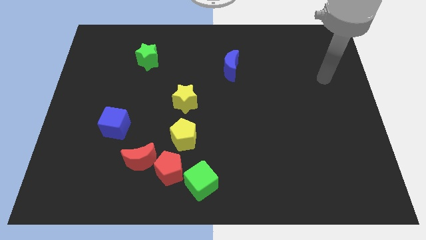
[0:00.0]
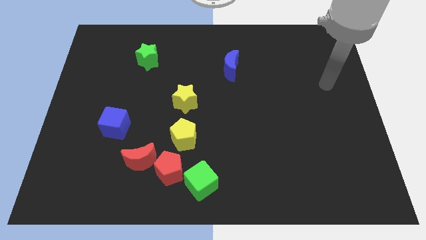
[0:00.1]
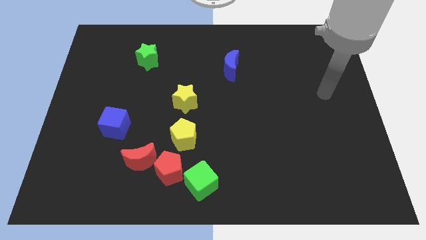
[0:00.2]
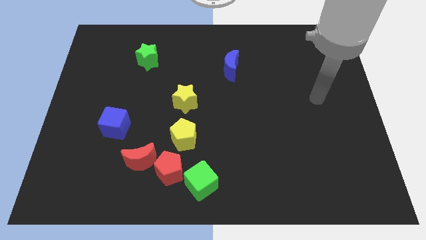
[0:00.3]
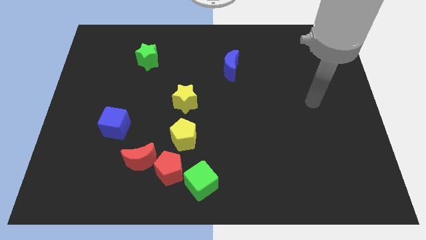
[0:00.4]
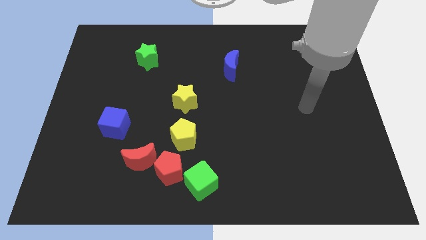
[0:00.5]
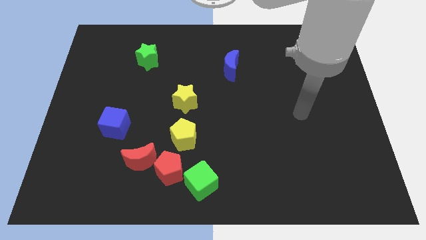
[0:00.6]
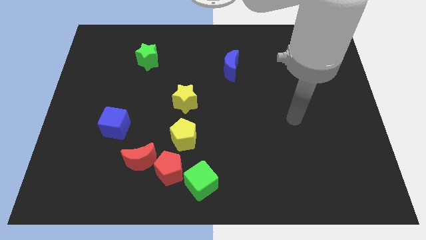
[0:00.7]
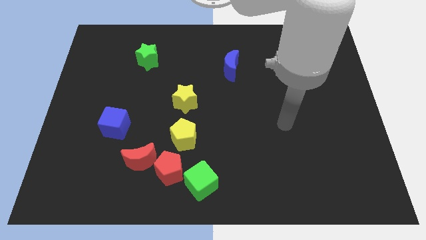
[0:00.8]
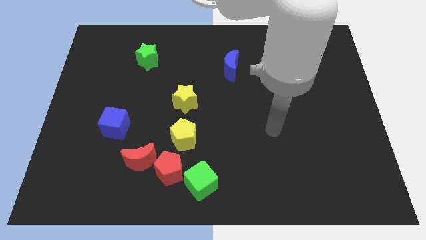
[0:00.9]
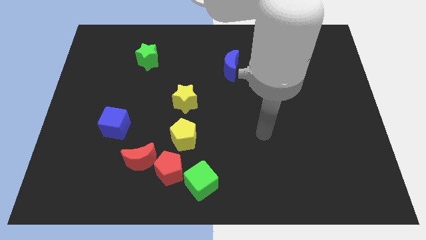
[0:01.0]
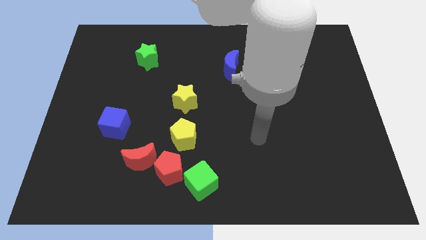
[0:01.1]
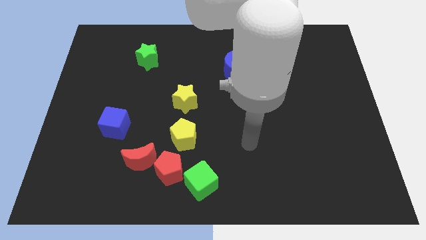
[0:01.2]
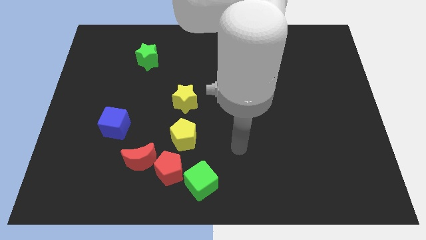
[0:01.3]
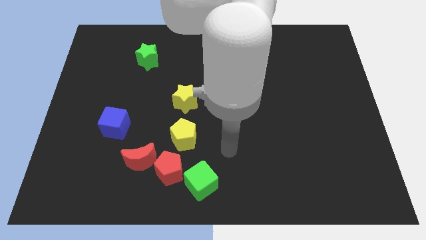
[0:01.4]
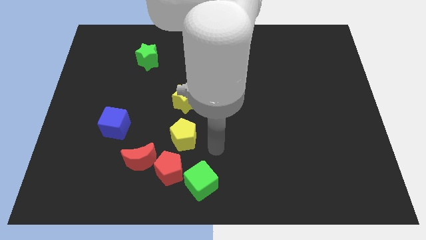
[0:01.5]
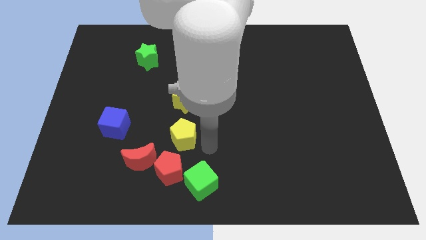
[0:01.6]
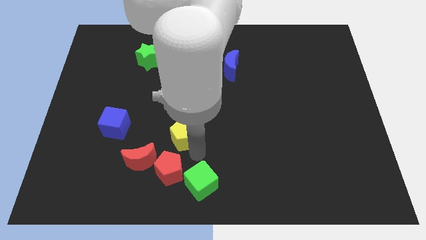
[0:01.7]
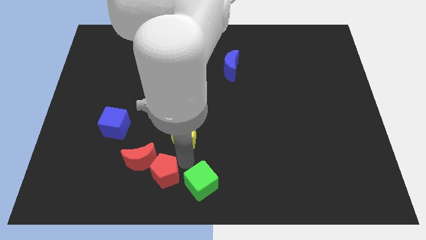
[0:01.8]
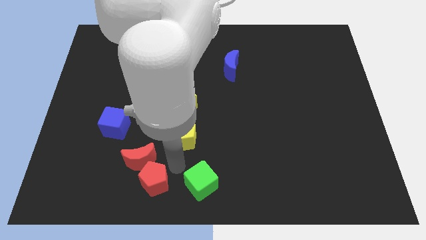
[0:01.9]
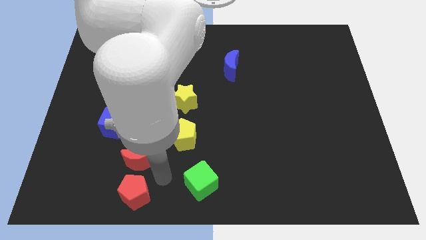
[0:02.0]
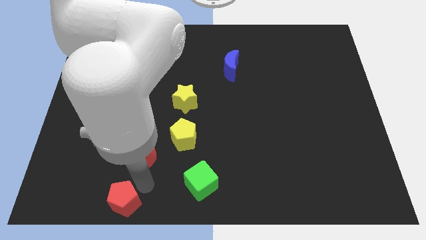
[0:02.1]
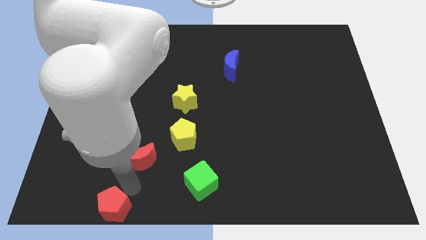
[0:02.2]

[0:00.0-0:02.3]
pull the red moon apart from the red pentagon

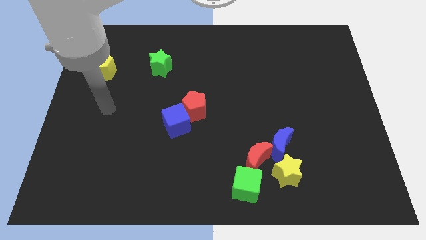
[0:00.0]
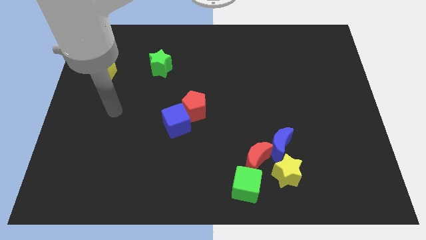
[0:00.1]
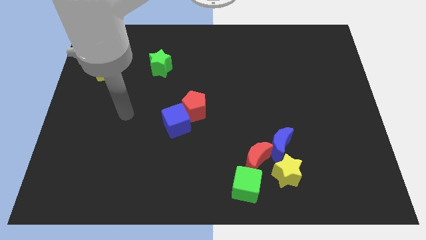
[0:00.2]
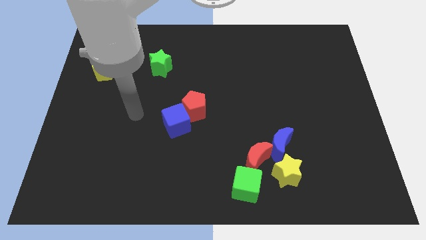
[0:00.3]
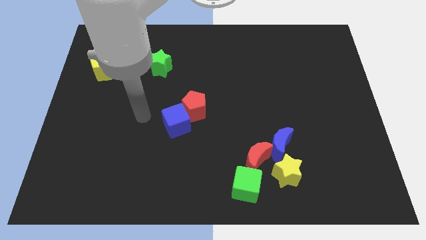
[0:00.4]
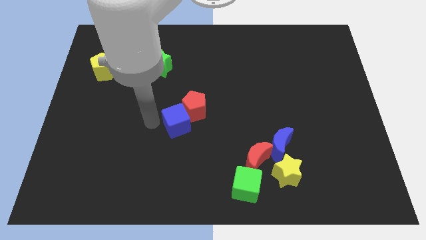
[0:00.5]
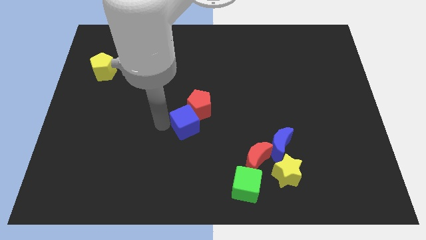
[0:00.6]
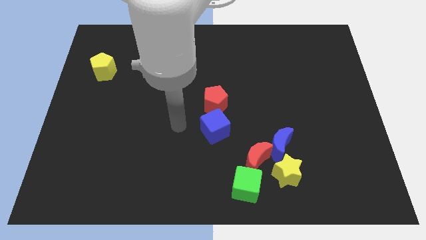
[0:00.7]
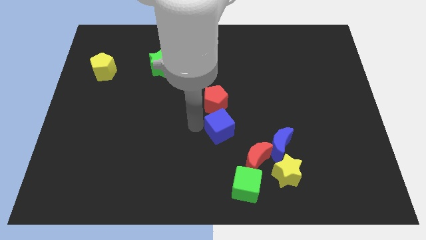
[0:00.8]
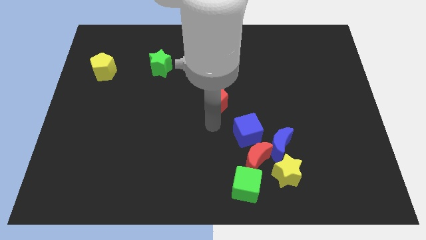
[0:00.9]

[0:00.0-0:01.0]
pull the red pentagon apart from the blue cube

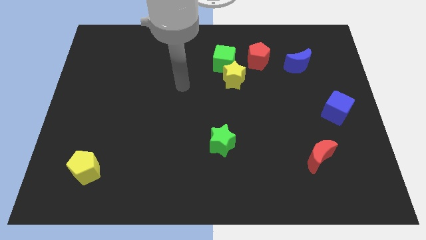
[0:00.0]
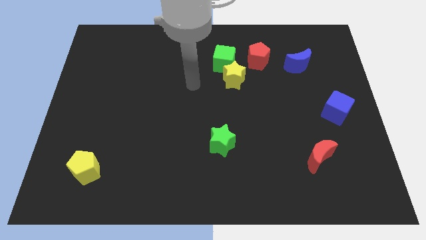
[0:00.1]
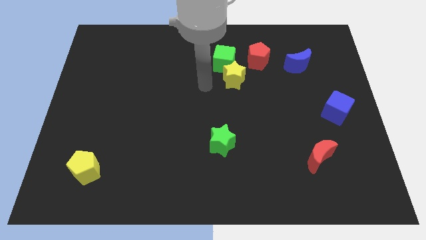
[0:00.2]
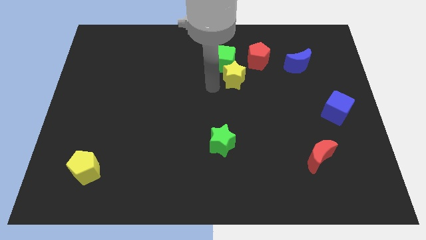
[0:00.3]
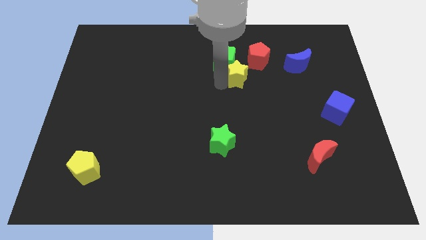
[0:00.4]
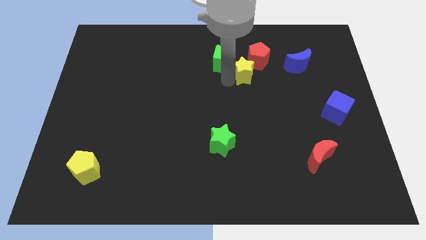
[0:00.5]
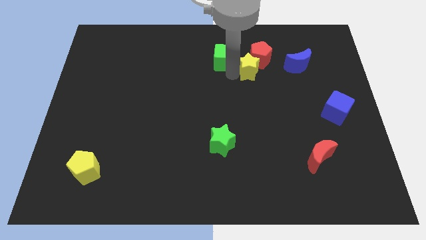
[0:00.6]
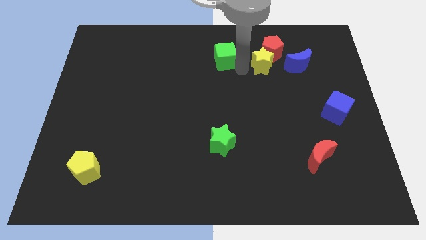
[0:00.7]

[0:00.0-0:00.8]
separate the green cube from the yellow star and red pentagon

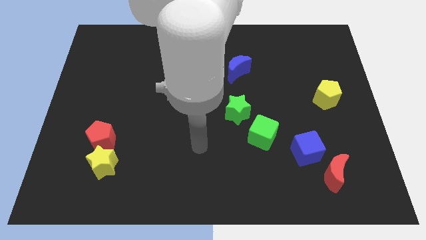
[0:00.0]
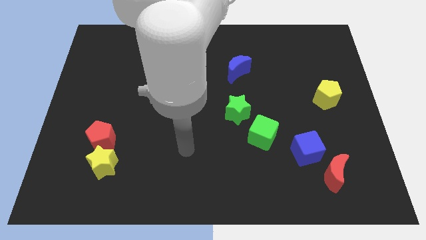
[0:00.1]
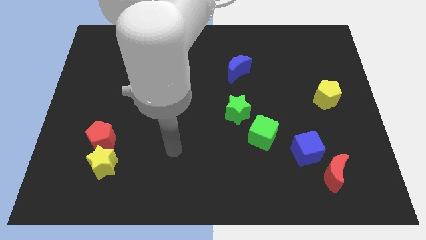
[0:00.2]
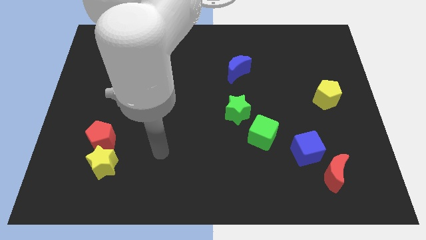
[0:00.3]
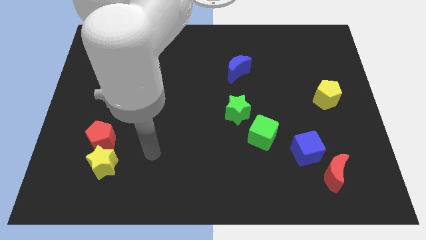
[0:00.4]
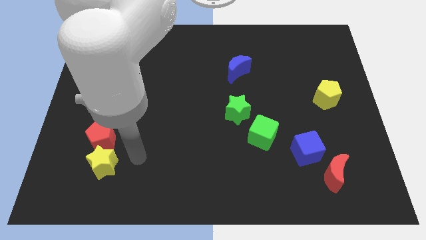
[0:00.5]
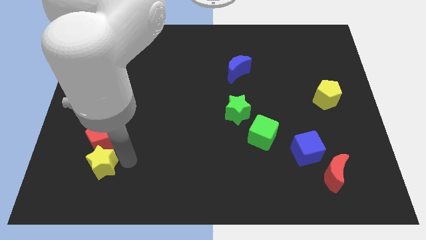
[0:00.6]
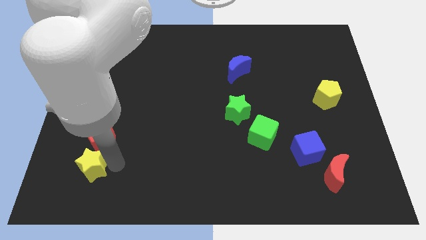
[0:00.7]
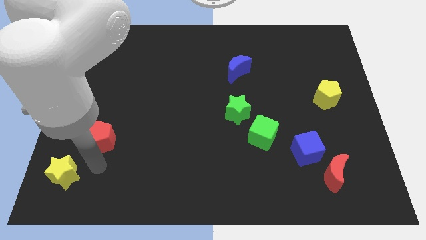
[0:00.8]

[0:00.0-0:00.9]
move the red pentagon away from the yellow star

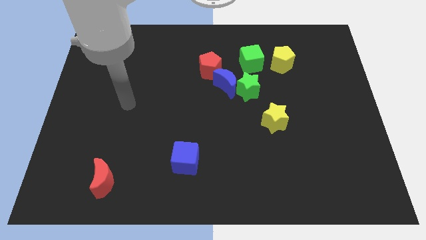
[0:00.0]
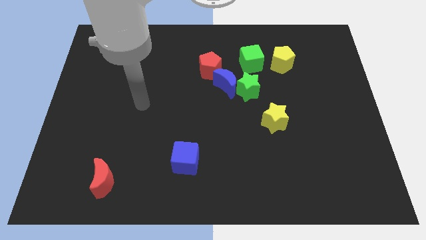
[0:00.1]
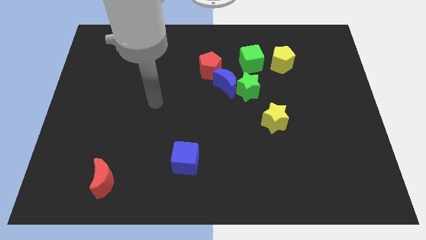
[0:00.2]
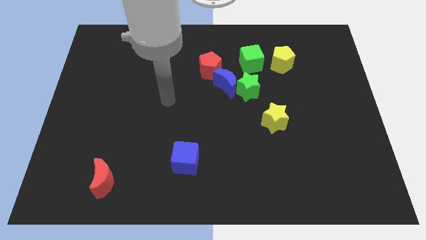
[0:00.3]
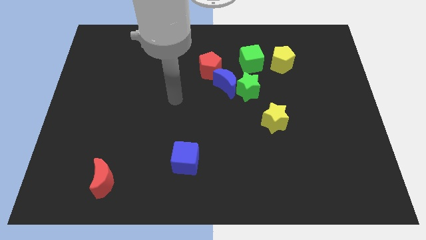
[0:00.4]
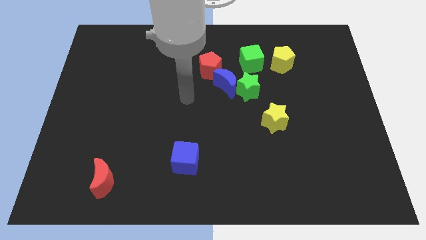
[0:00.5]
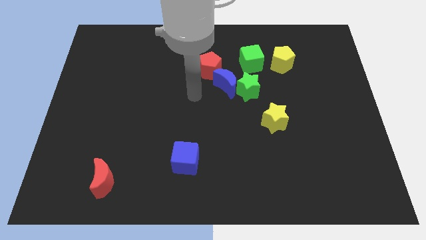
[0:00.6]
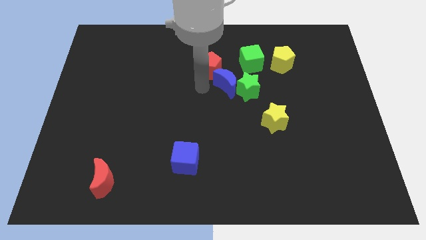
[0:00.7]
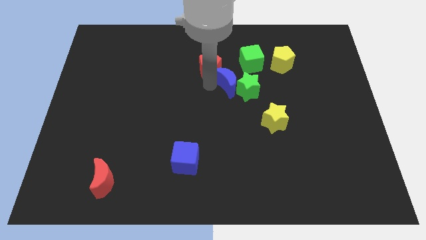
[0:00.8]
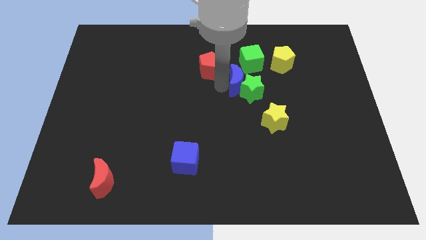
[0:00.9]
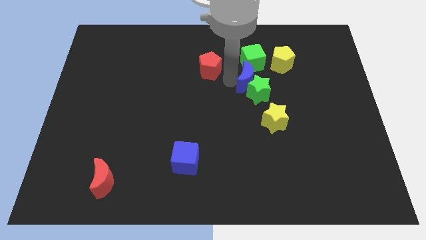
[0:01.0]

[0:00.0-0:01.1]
pull the red pentagon apart from the blue moon

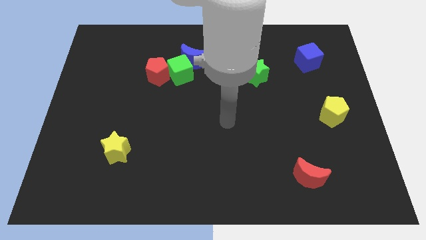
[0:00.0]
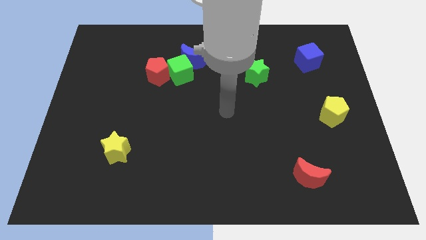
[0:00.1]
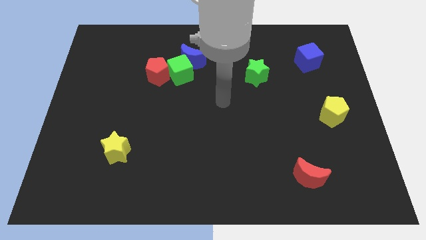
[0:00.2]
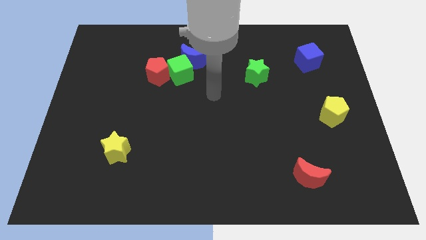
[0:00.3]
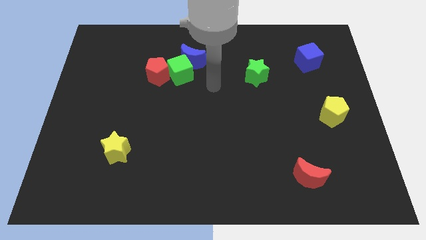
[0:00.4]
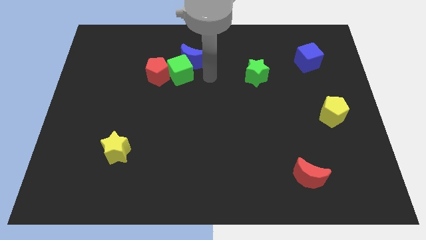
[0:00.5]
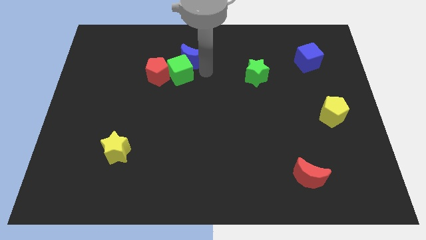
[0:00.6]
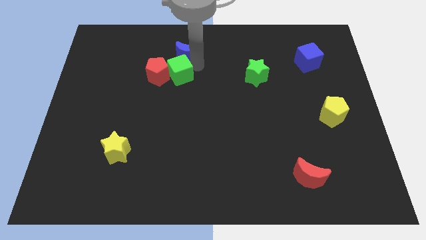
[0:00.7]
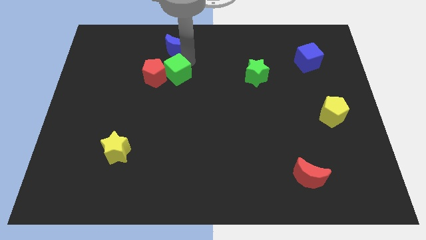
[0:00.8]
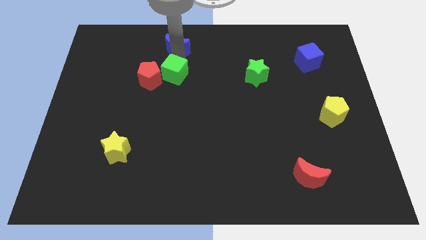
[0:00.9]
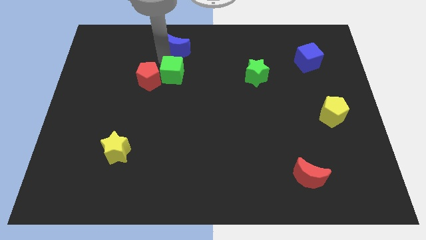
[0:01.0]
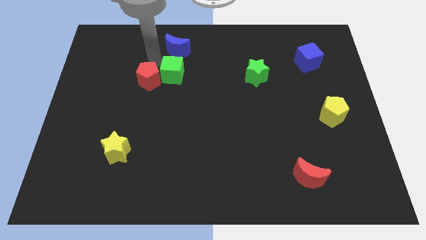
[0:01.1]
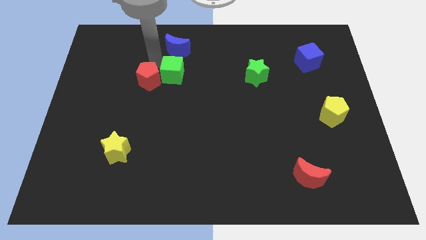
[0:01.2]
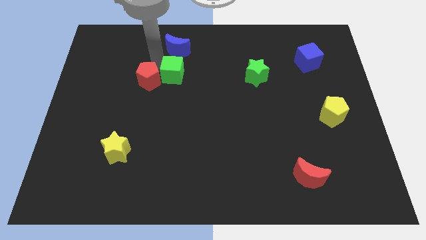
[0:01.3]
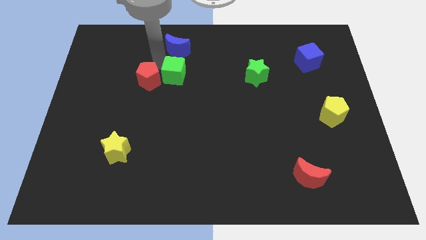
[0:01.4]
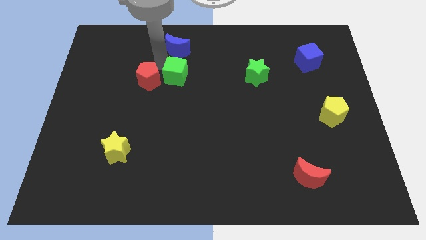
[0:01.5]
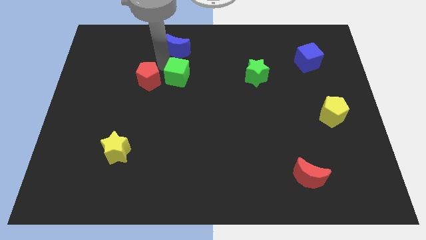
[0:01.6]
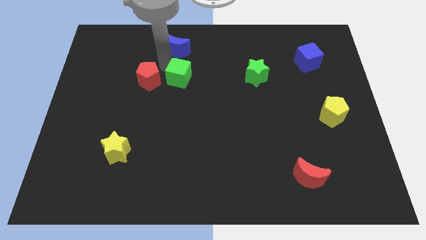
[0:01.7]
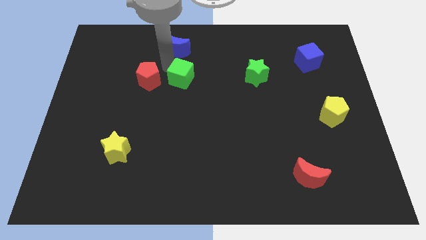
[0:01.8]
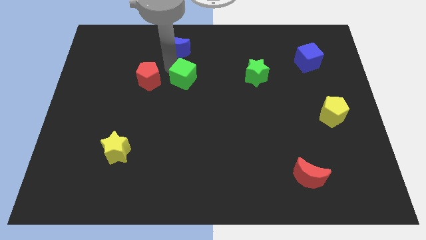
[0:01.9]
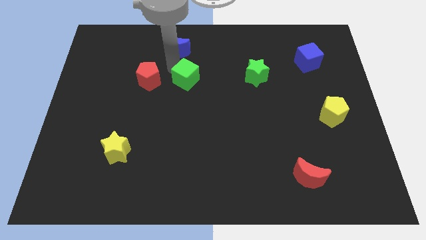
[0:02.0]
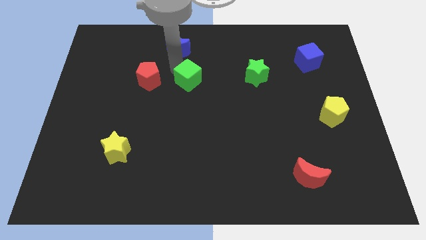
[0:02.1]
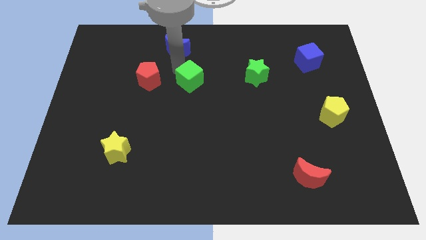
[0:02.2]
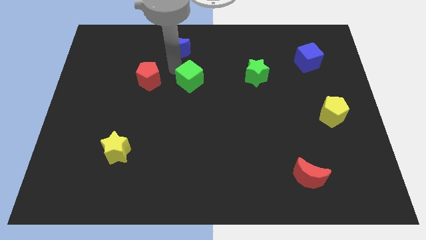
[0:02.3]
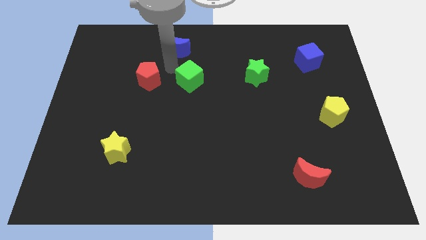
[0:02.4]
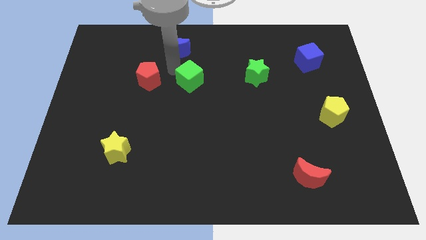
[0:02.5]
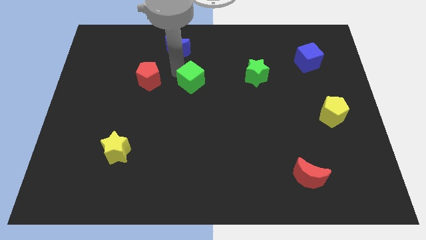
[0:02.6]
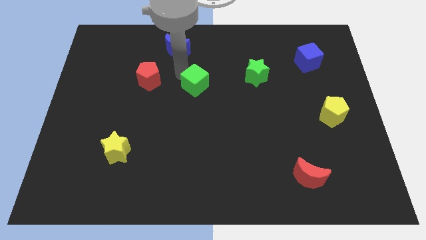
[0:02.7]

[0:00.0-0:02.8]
move the green cube away from the blue moon and red pentagon

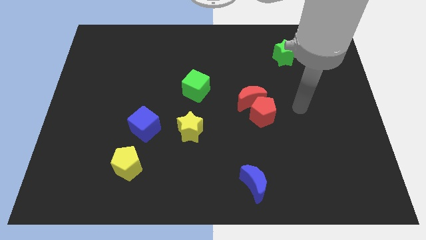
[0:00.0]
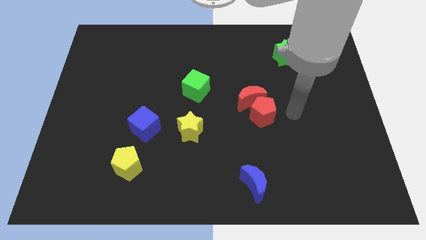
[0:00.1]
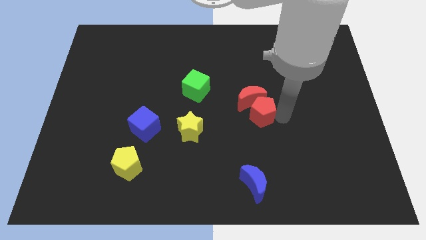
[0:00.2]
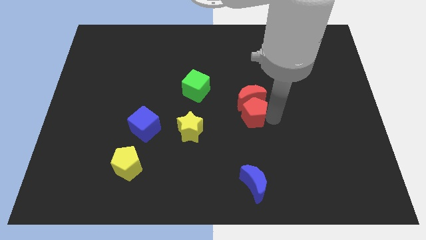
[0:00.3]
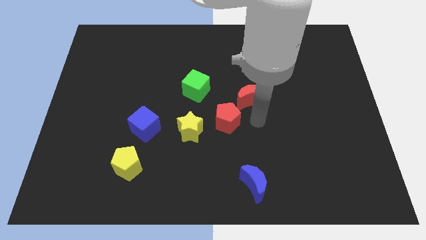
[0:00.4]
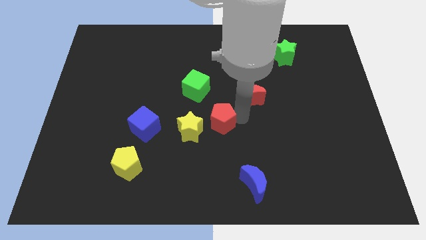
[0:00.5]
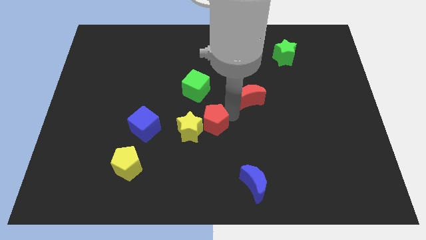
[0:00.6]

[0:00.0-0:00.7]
separate the red moon from the red pentagon
